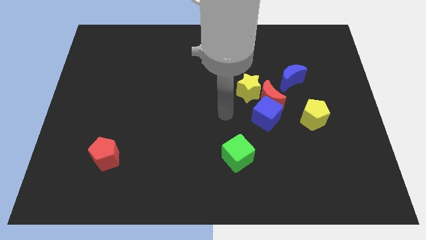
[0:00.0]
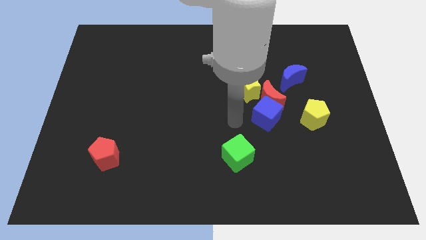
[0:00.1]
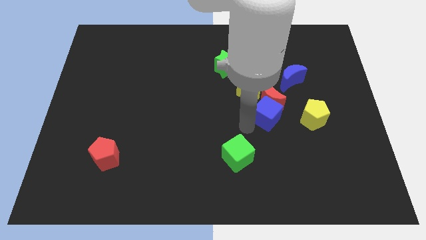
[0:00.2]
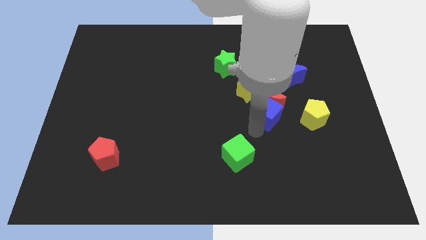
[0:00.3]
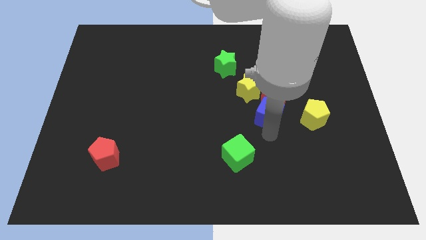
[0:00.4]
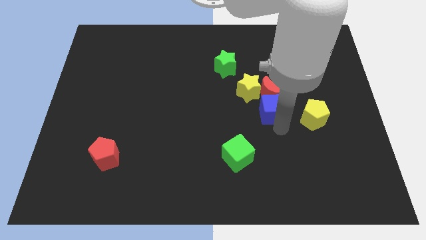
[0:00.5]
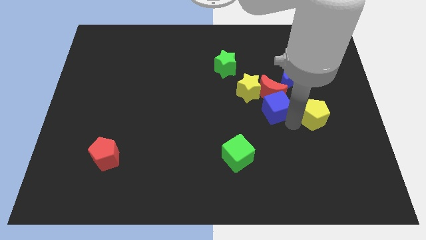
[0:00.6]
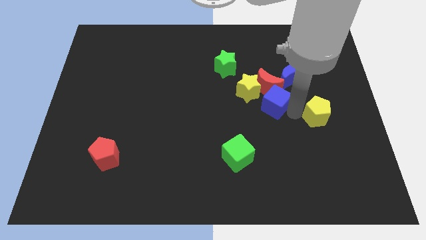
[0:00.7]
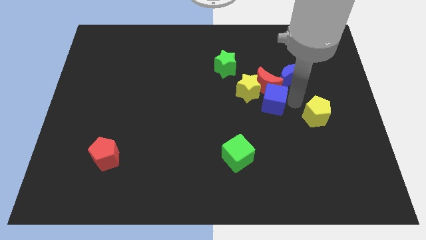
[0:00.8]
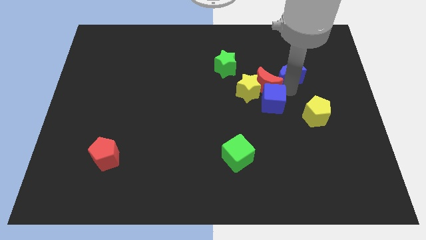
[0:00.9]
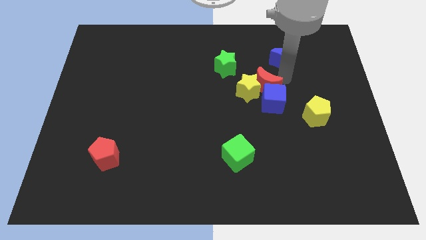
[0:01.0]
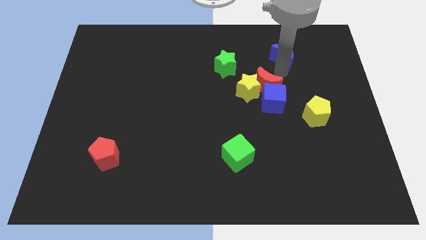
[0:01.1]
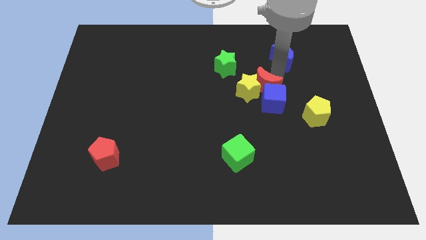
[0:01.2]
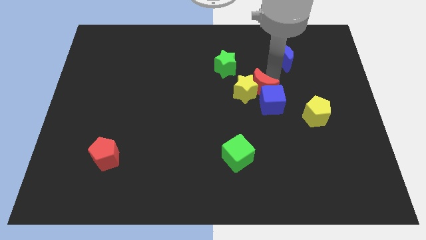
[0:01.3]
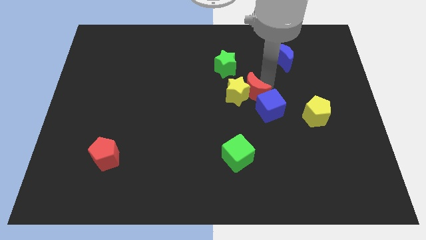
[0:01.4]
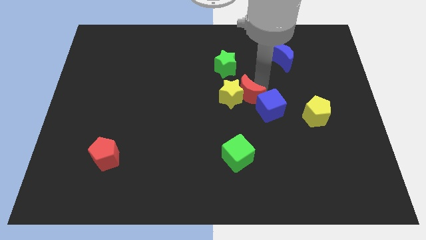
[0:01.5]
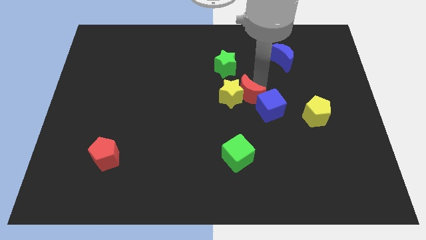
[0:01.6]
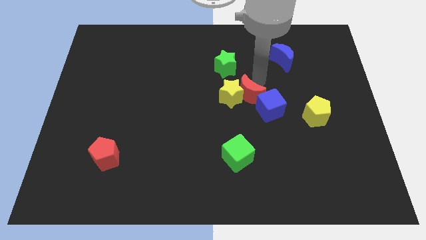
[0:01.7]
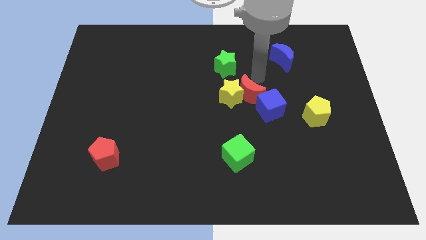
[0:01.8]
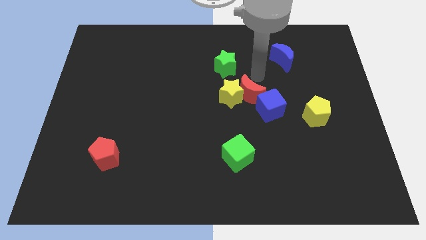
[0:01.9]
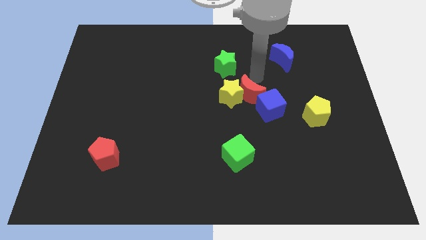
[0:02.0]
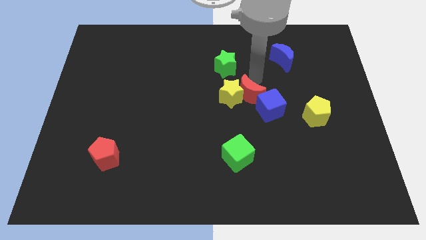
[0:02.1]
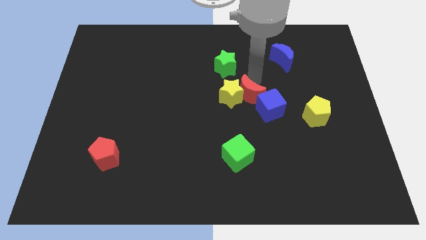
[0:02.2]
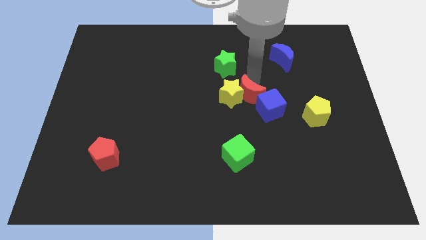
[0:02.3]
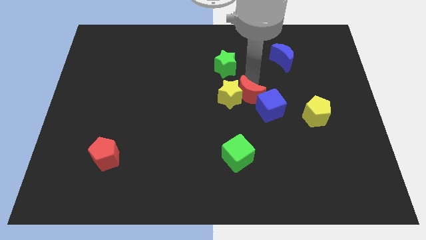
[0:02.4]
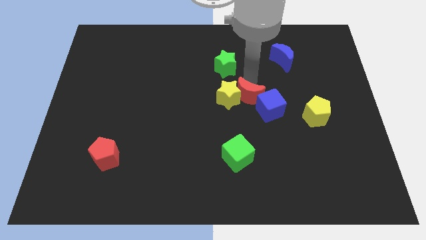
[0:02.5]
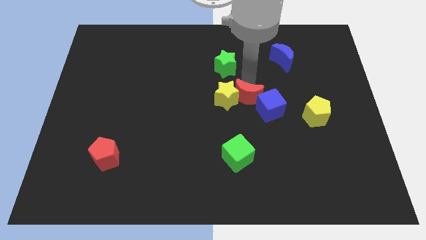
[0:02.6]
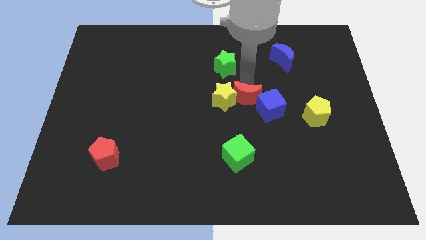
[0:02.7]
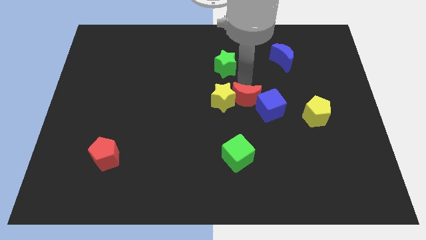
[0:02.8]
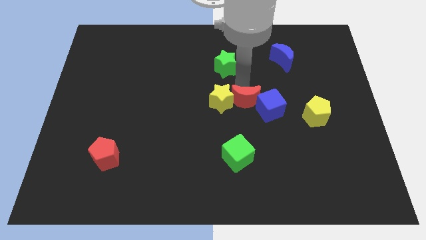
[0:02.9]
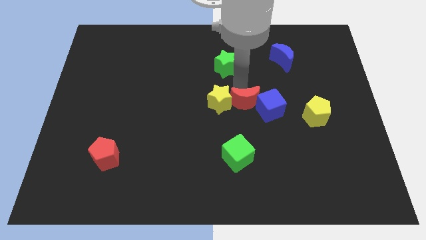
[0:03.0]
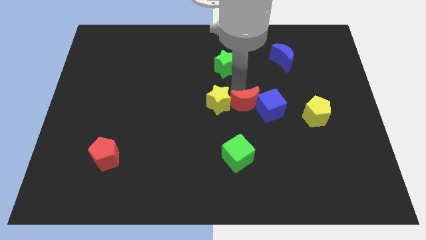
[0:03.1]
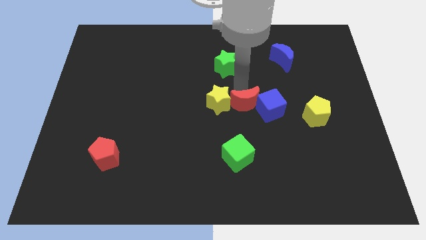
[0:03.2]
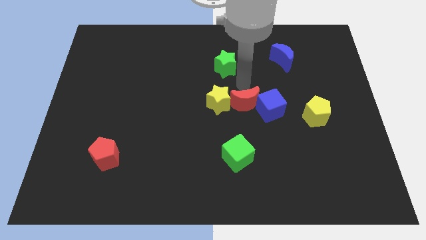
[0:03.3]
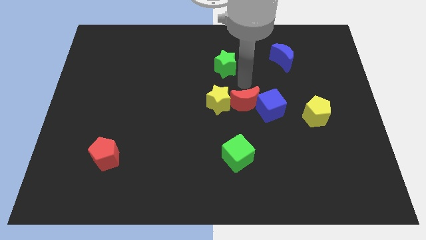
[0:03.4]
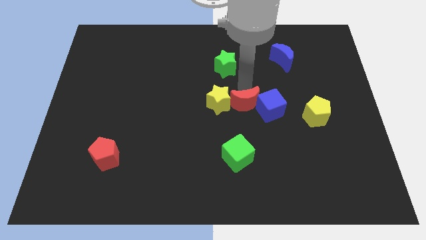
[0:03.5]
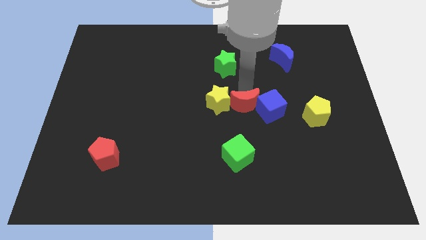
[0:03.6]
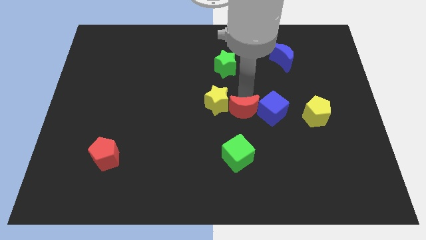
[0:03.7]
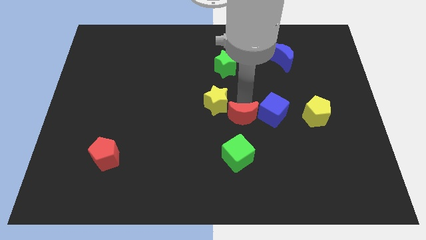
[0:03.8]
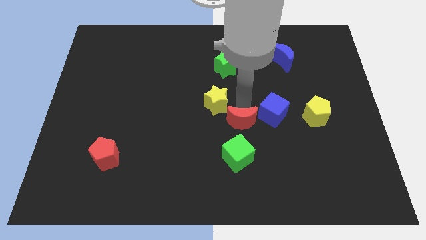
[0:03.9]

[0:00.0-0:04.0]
separate the red moon from the blue cube, yellow star, and blue moon

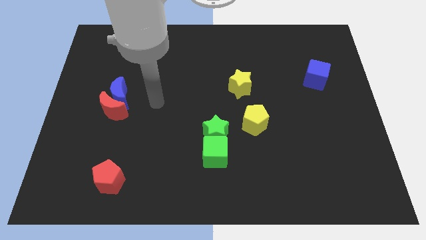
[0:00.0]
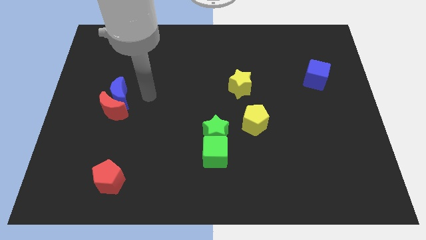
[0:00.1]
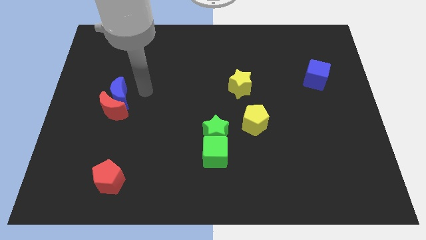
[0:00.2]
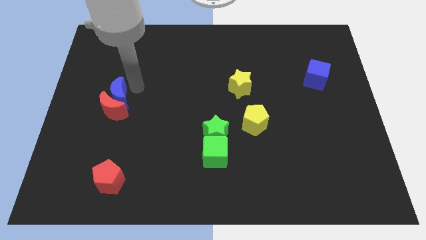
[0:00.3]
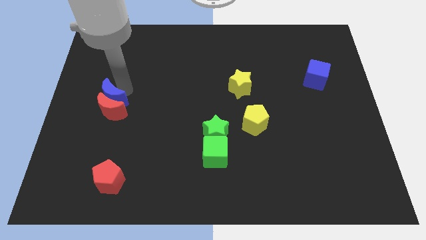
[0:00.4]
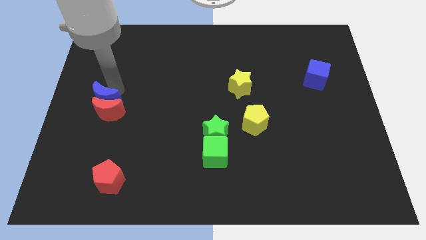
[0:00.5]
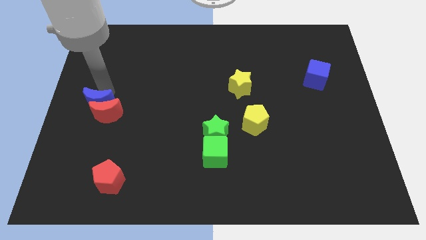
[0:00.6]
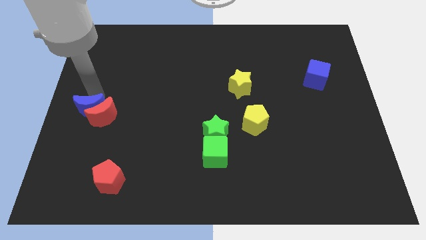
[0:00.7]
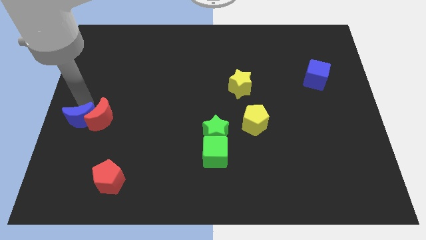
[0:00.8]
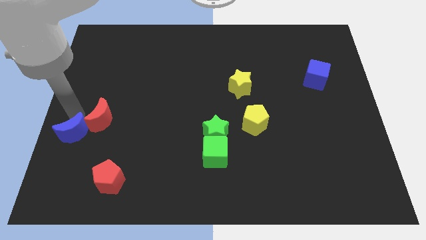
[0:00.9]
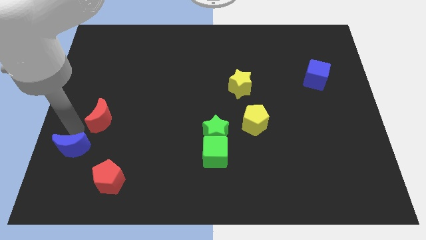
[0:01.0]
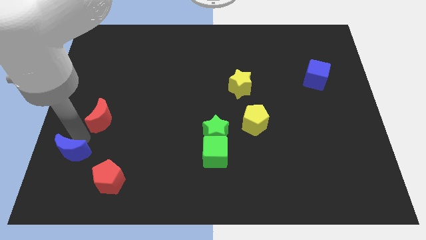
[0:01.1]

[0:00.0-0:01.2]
separate the red moon from the blue moon

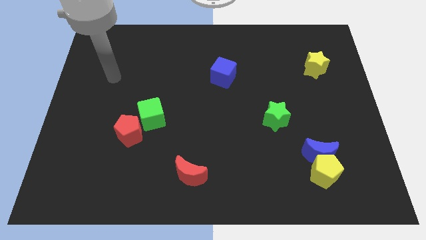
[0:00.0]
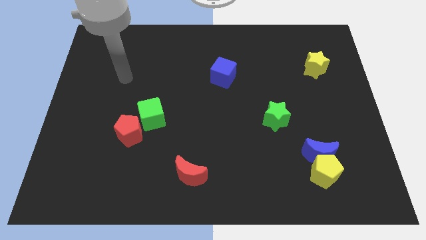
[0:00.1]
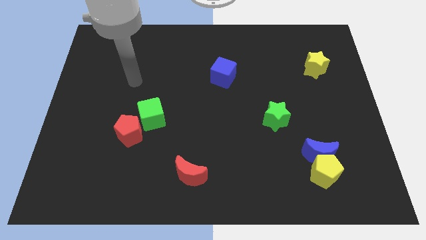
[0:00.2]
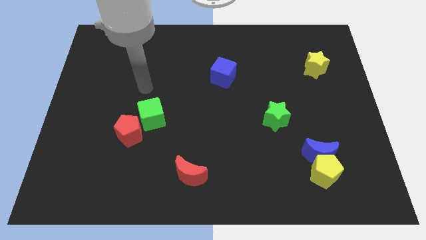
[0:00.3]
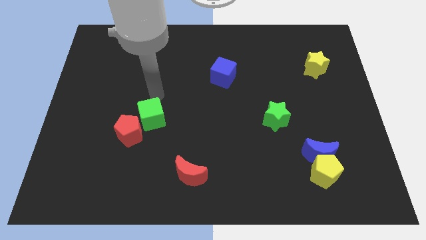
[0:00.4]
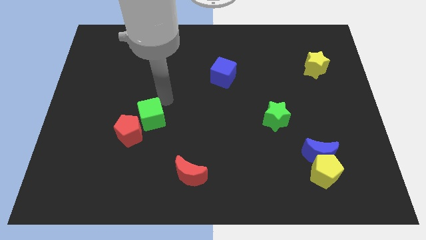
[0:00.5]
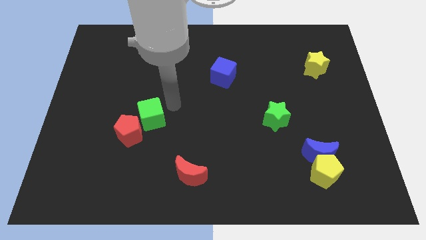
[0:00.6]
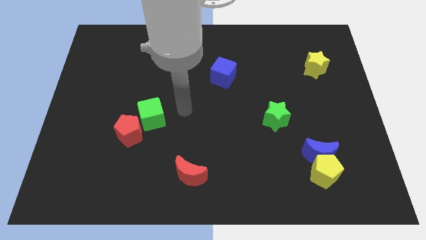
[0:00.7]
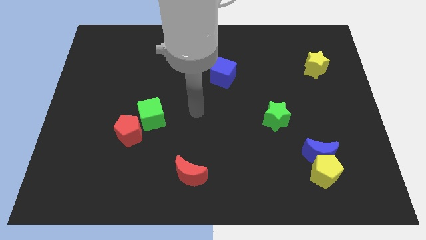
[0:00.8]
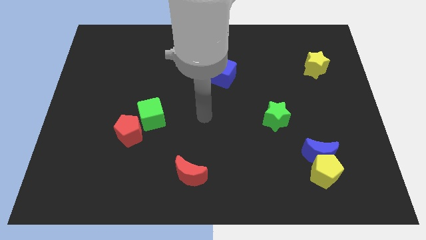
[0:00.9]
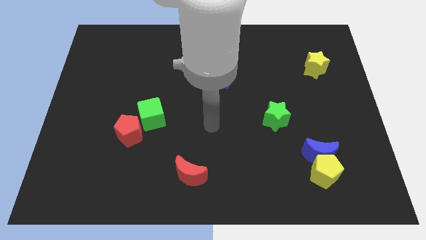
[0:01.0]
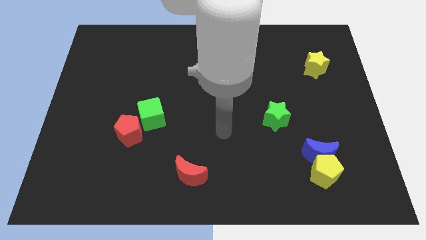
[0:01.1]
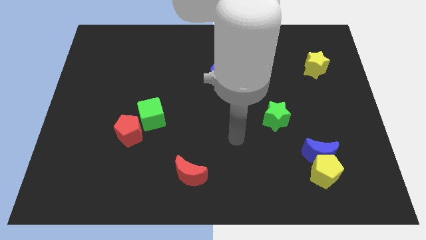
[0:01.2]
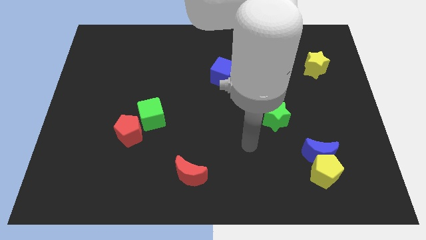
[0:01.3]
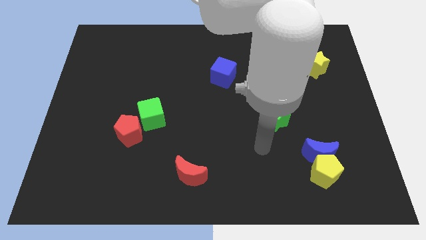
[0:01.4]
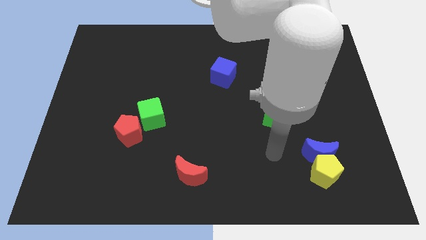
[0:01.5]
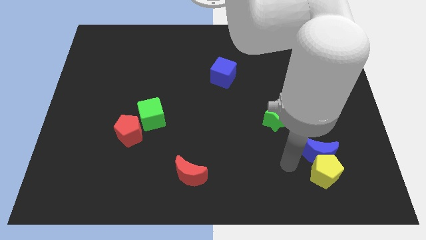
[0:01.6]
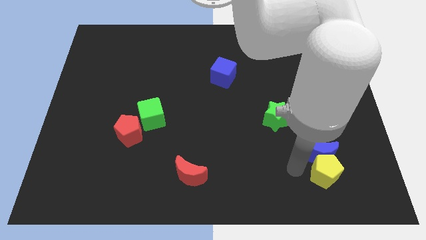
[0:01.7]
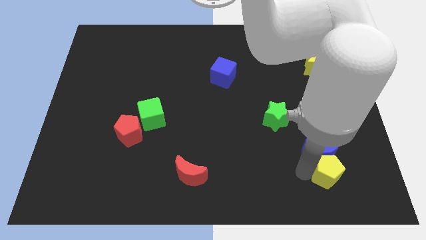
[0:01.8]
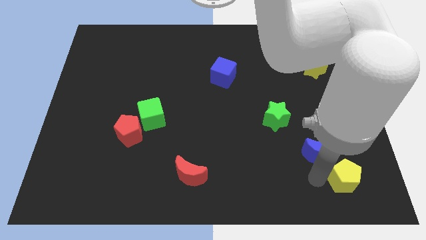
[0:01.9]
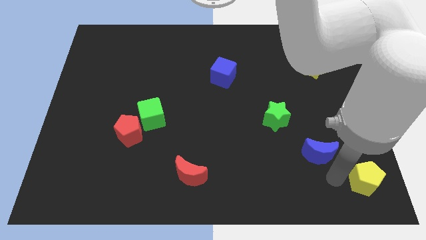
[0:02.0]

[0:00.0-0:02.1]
separate the blue moon from the yellow pentagon

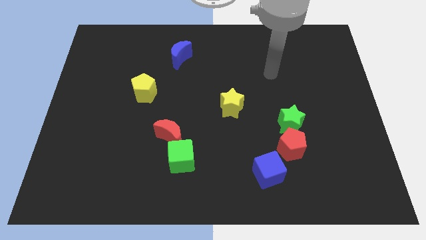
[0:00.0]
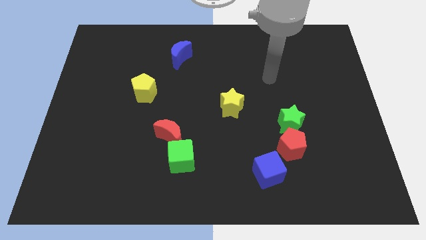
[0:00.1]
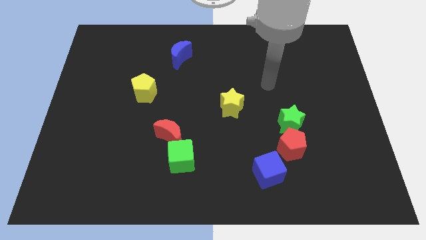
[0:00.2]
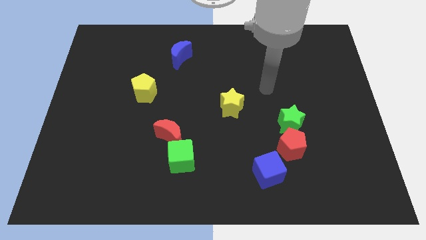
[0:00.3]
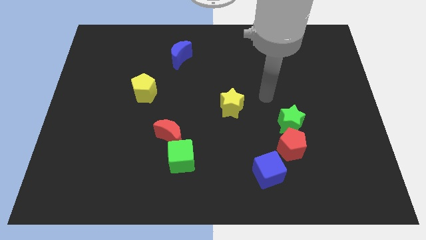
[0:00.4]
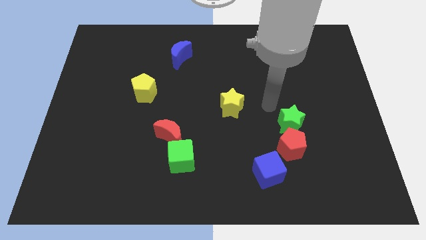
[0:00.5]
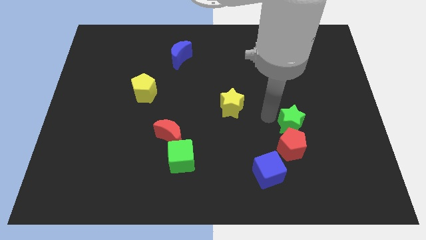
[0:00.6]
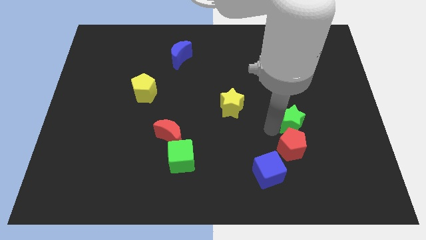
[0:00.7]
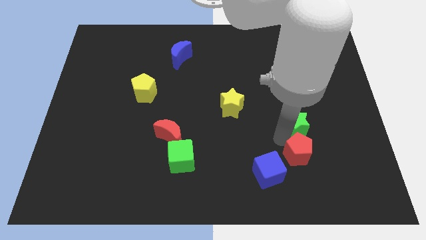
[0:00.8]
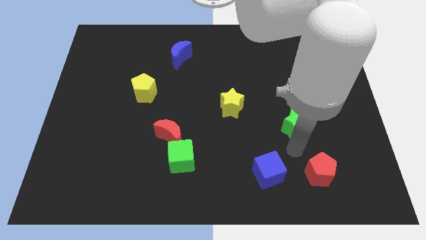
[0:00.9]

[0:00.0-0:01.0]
pull the green star apart from the red pentagon

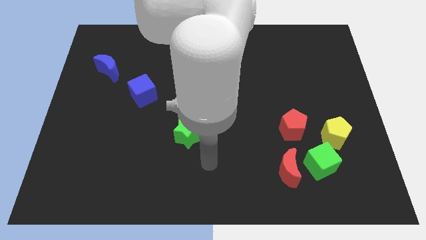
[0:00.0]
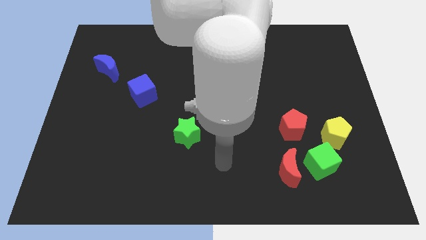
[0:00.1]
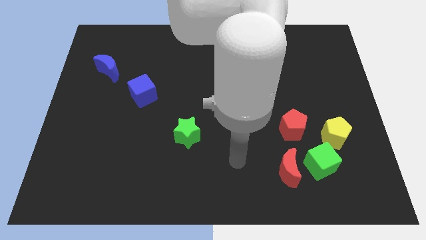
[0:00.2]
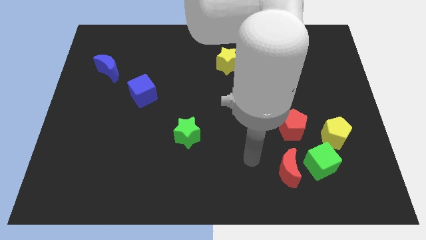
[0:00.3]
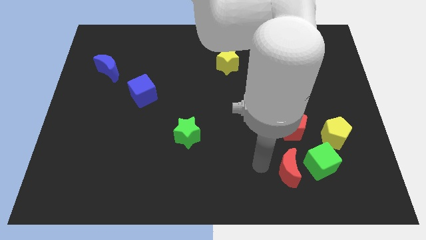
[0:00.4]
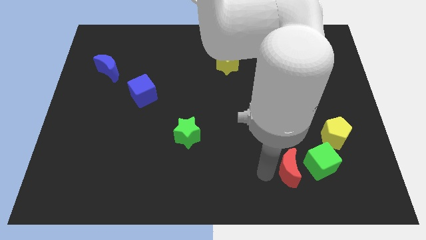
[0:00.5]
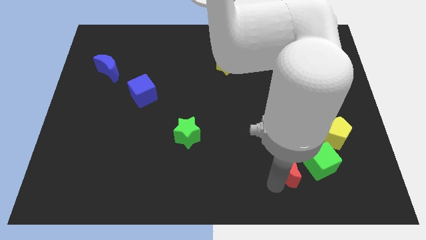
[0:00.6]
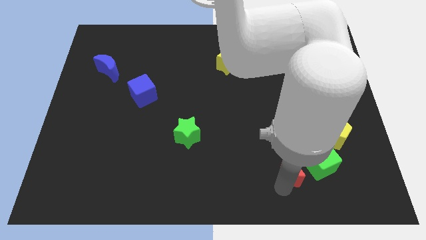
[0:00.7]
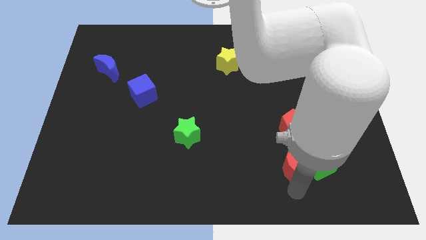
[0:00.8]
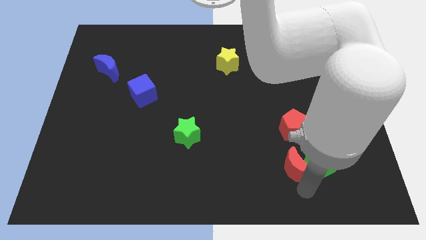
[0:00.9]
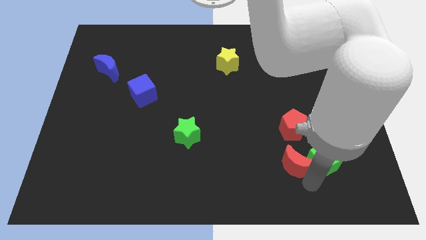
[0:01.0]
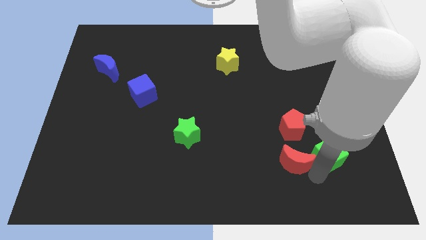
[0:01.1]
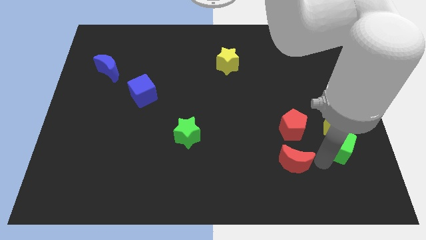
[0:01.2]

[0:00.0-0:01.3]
move the red moon away from the green cube
